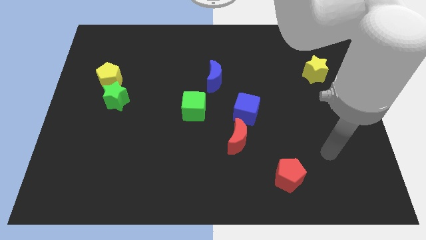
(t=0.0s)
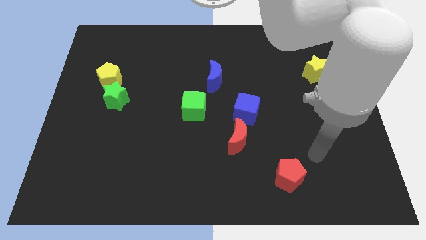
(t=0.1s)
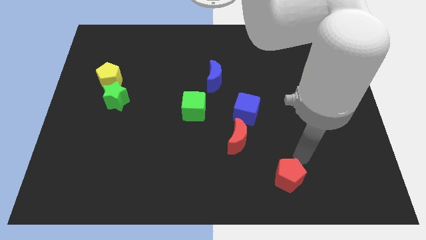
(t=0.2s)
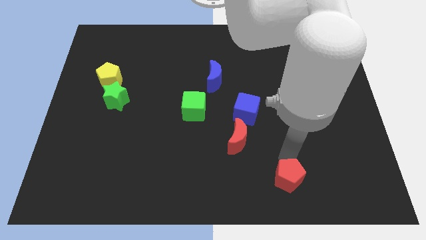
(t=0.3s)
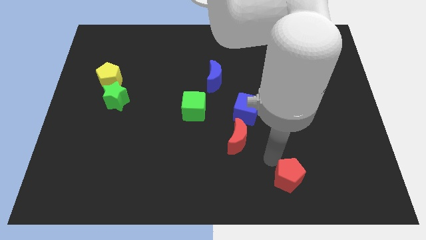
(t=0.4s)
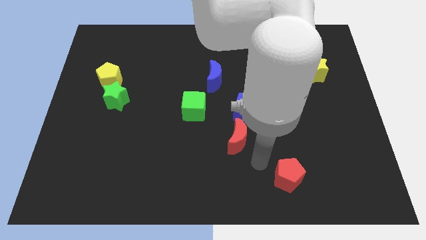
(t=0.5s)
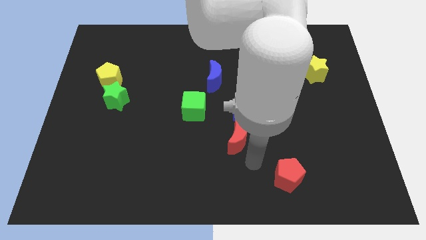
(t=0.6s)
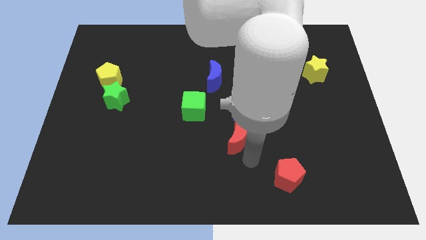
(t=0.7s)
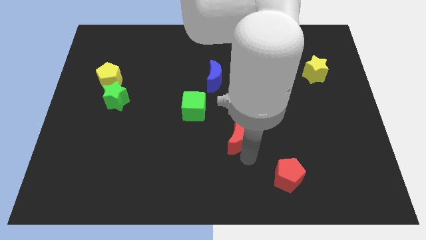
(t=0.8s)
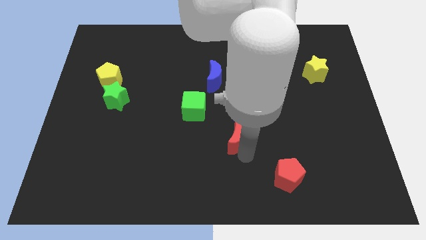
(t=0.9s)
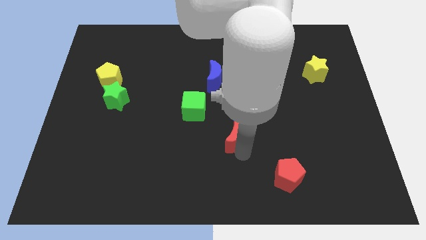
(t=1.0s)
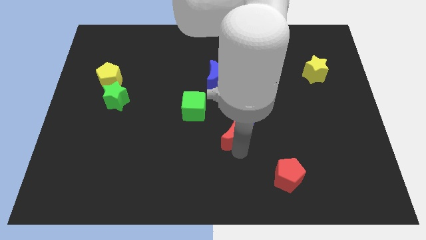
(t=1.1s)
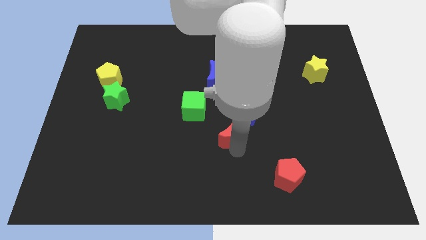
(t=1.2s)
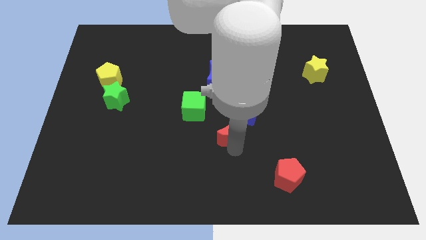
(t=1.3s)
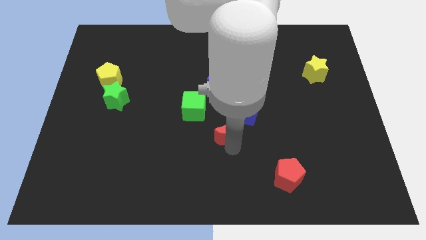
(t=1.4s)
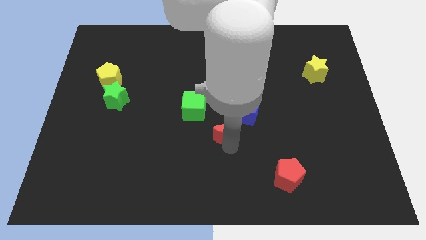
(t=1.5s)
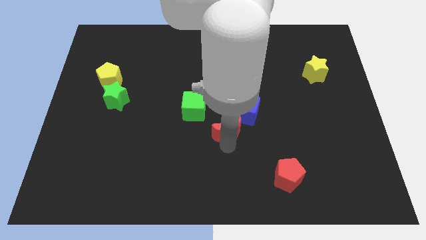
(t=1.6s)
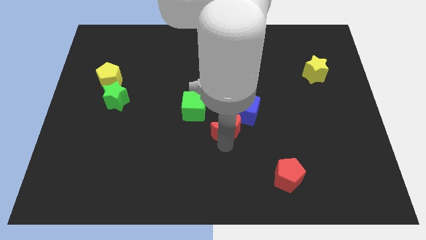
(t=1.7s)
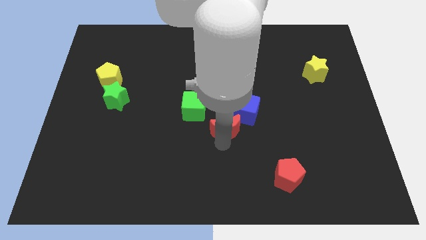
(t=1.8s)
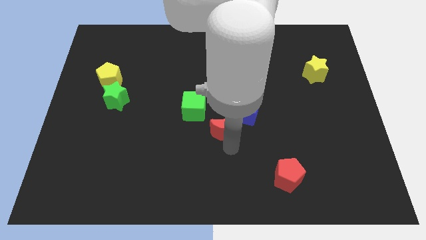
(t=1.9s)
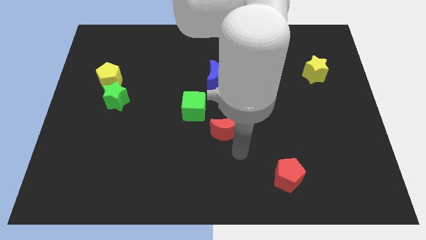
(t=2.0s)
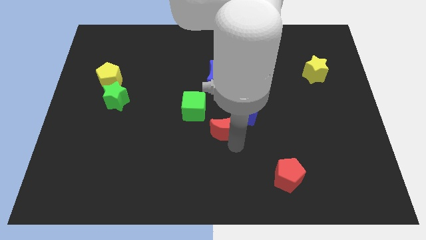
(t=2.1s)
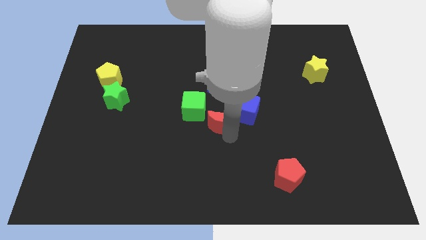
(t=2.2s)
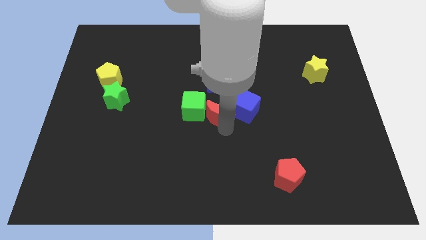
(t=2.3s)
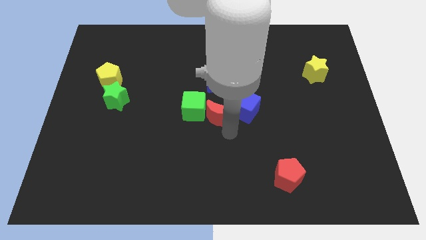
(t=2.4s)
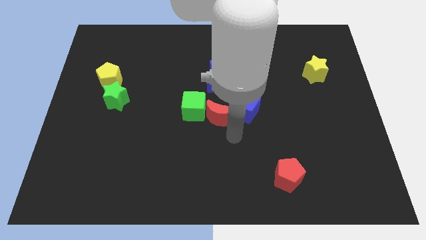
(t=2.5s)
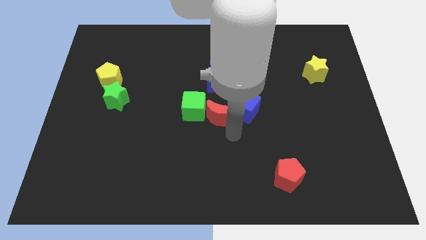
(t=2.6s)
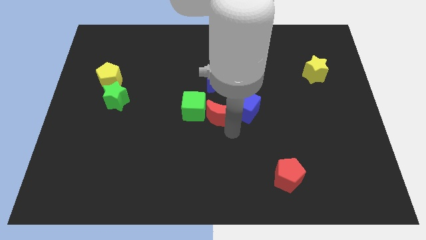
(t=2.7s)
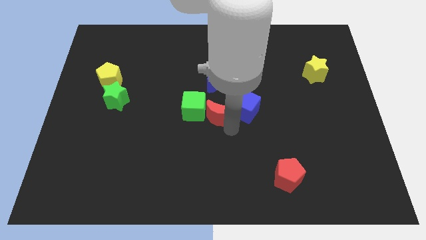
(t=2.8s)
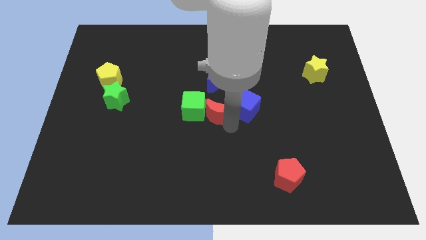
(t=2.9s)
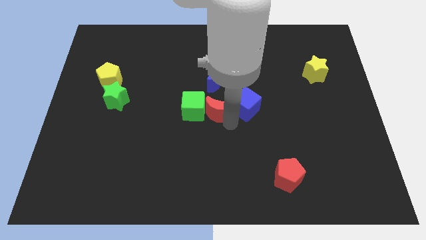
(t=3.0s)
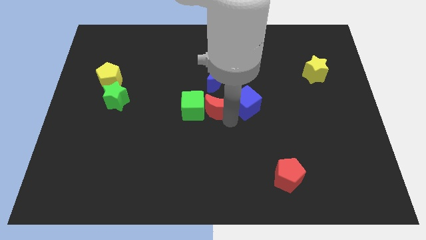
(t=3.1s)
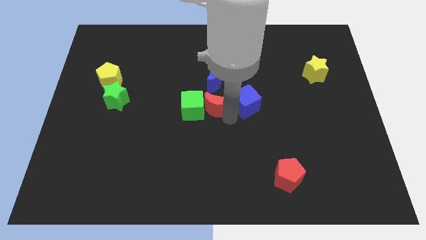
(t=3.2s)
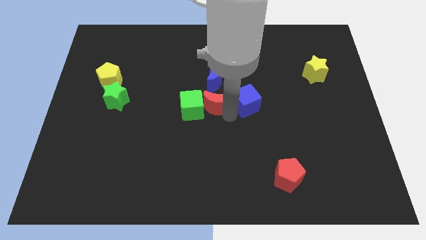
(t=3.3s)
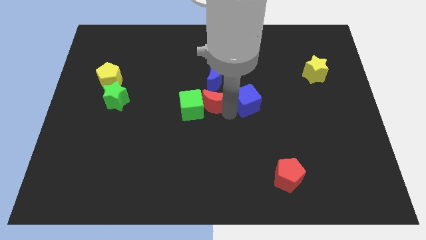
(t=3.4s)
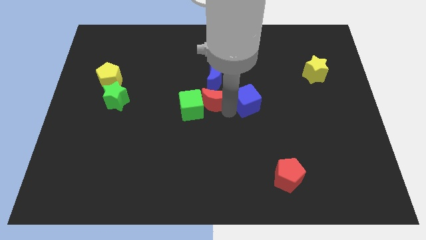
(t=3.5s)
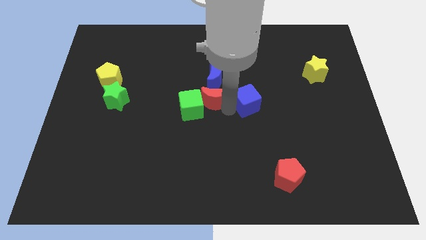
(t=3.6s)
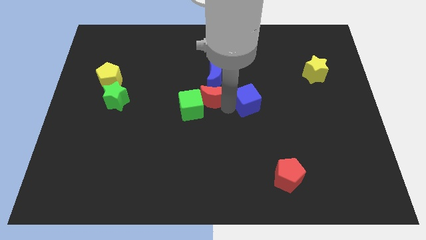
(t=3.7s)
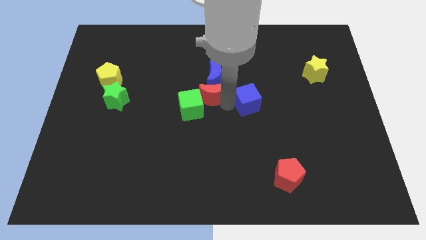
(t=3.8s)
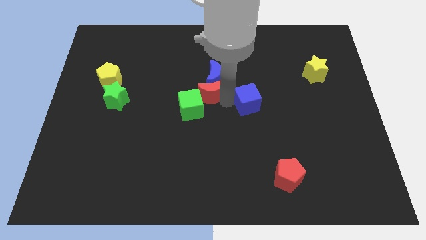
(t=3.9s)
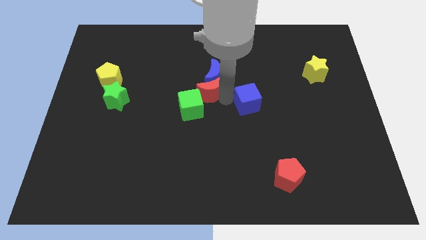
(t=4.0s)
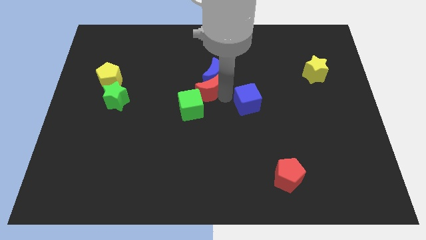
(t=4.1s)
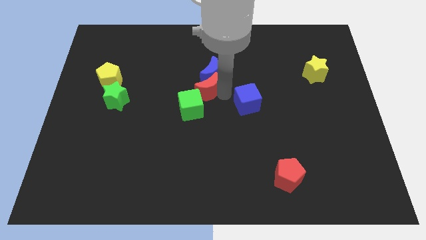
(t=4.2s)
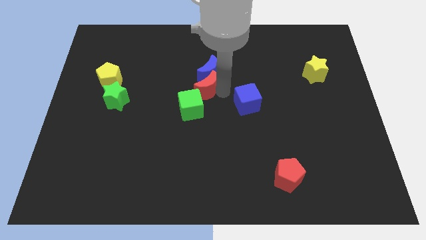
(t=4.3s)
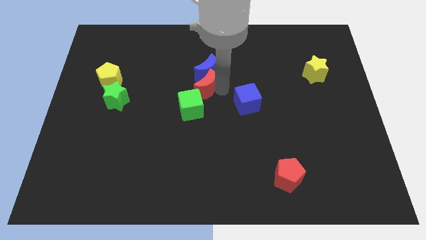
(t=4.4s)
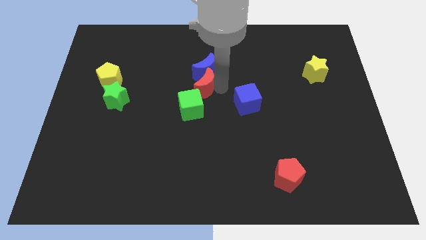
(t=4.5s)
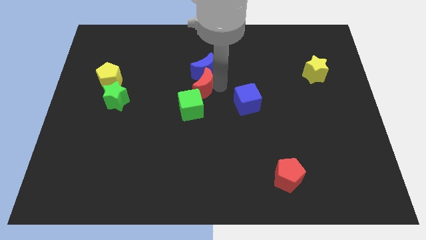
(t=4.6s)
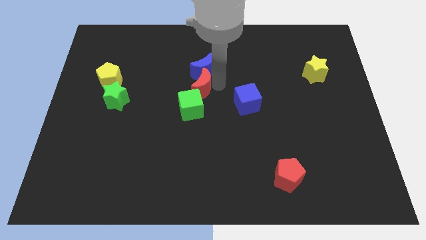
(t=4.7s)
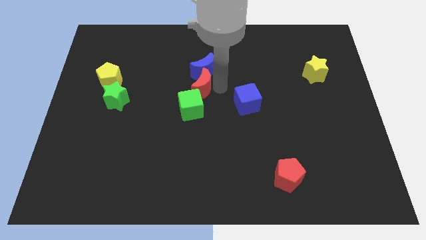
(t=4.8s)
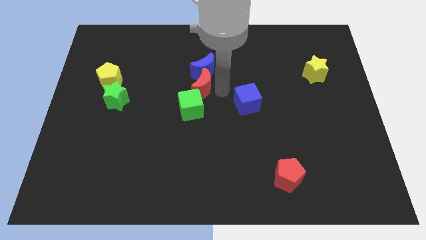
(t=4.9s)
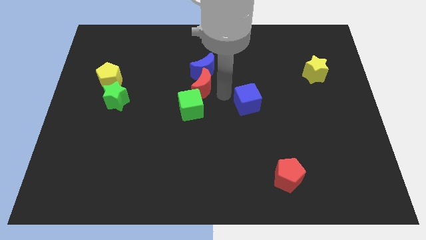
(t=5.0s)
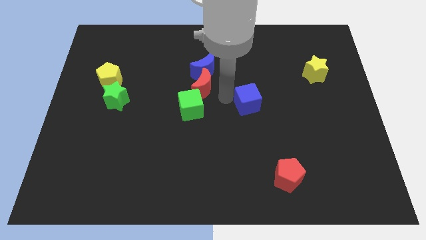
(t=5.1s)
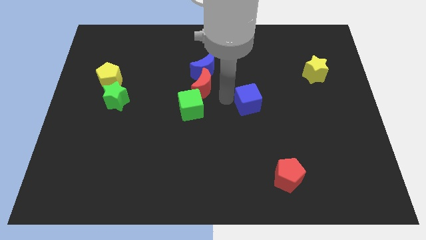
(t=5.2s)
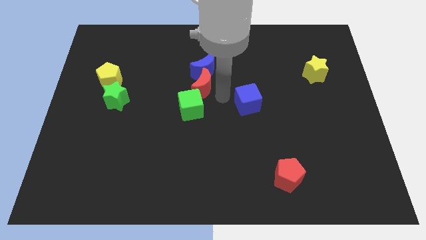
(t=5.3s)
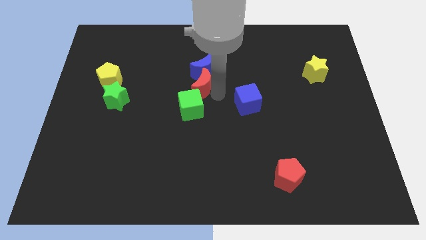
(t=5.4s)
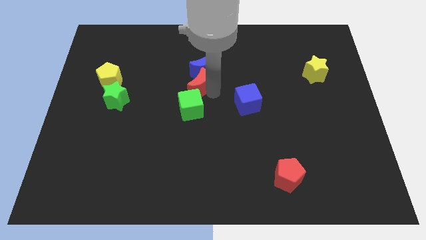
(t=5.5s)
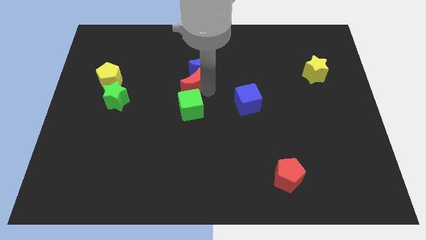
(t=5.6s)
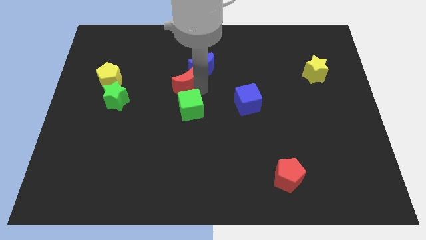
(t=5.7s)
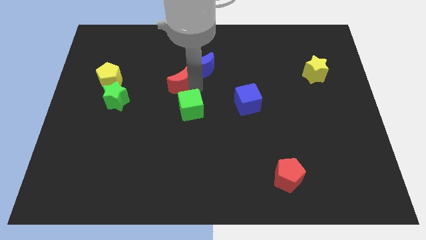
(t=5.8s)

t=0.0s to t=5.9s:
slide the red moon diagonally up and left

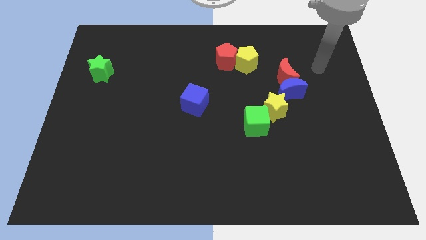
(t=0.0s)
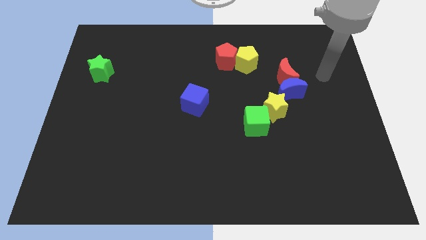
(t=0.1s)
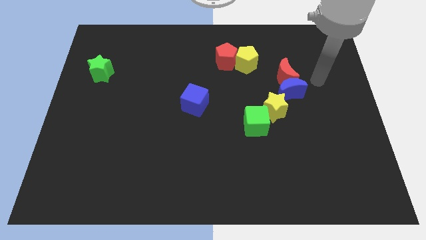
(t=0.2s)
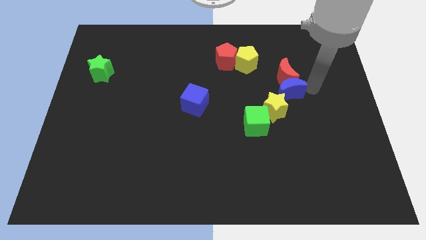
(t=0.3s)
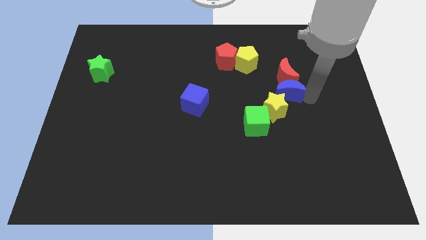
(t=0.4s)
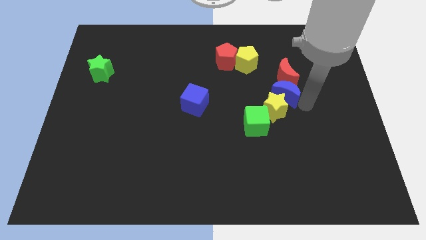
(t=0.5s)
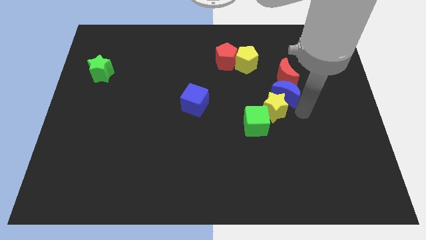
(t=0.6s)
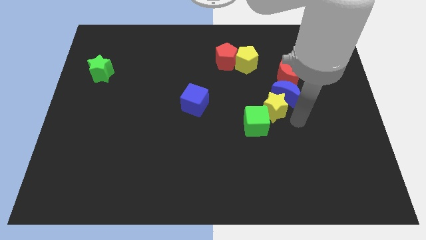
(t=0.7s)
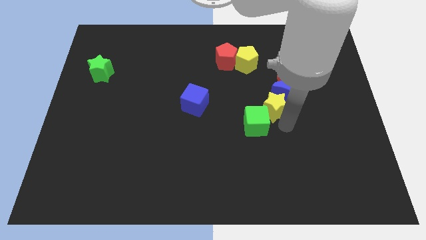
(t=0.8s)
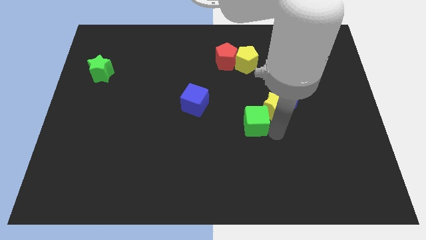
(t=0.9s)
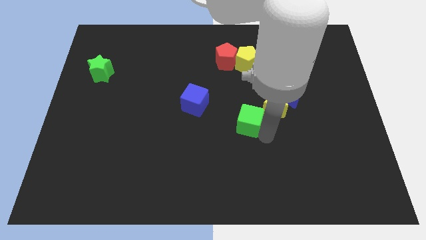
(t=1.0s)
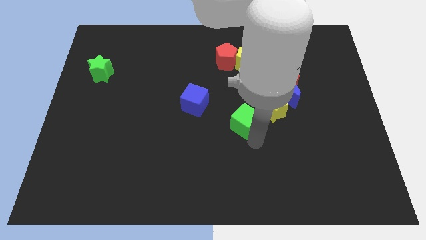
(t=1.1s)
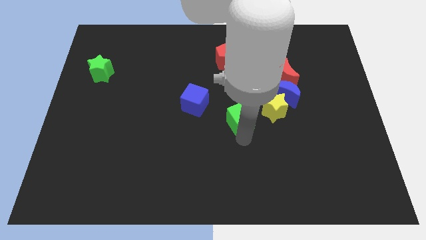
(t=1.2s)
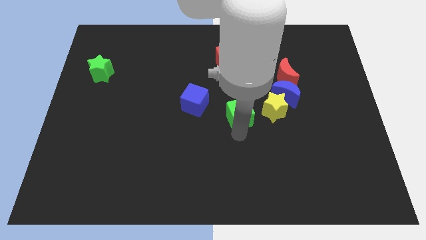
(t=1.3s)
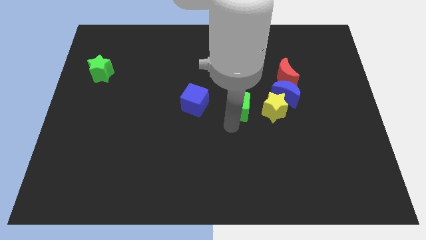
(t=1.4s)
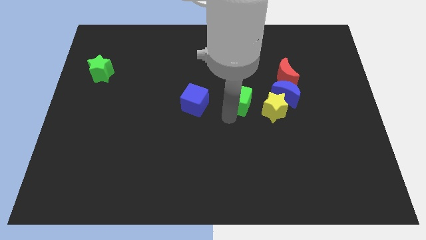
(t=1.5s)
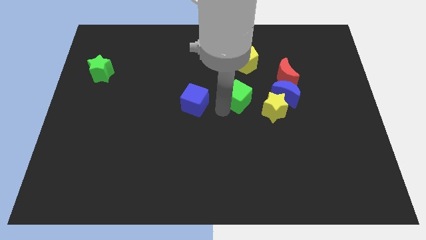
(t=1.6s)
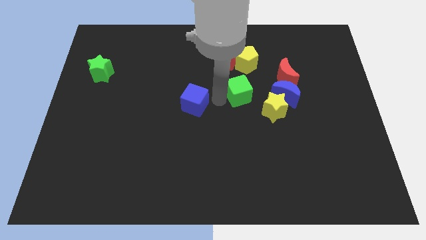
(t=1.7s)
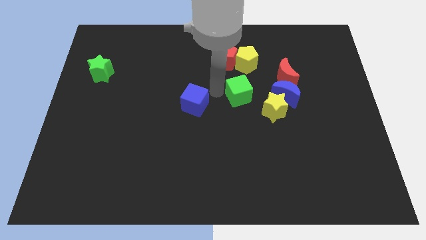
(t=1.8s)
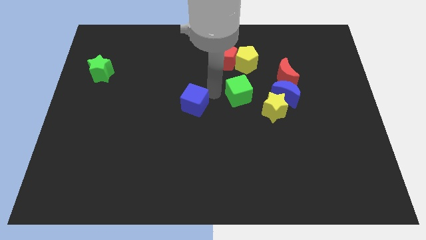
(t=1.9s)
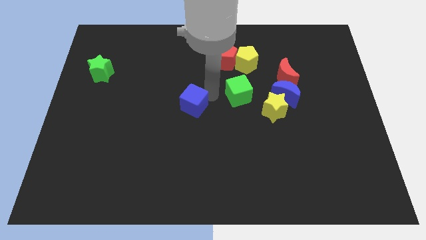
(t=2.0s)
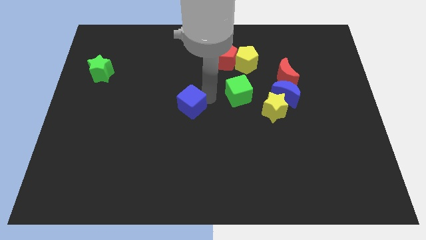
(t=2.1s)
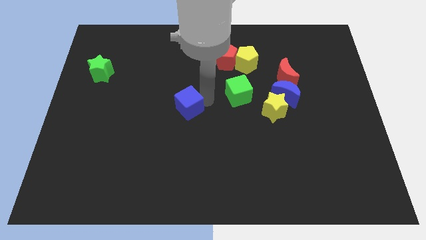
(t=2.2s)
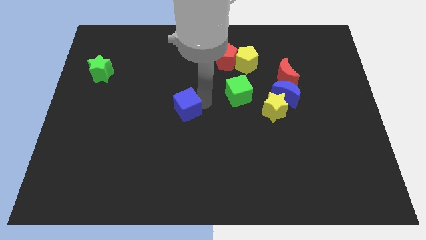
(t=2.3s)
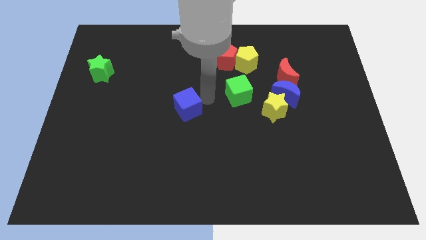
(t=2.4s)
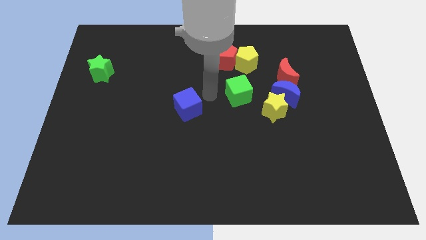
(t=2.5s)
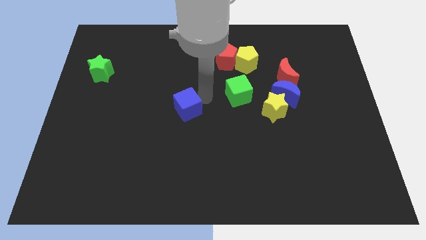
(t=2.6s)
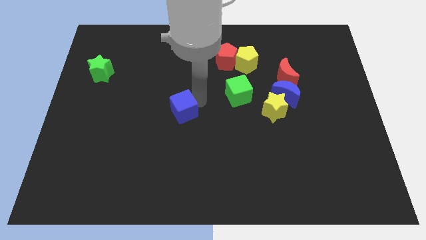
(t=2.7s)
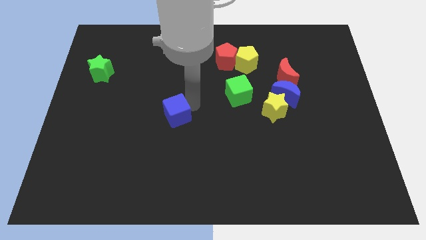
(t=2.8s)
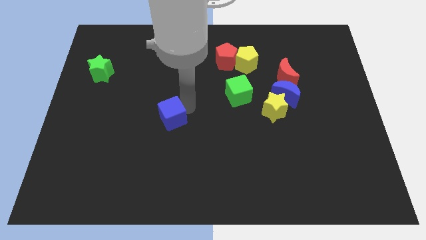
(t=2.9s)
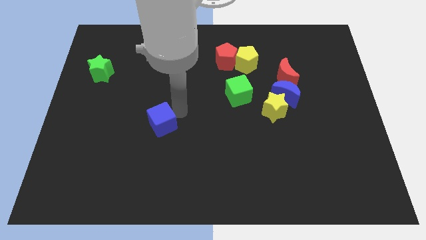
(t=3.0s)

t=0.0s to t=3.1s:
slide the blue cube downwards and to the left a bit
